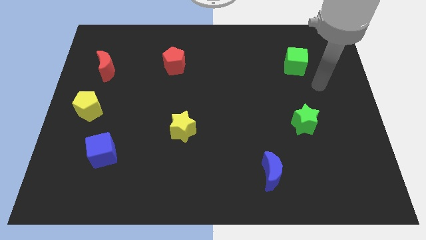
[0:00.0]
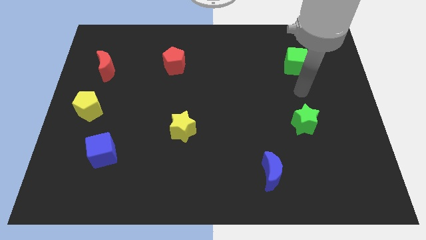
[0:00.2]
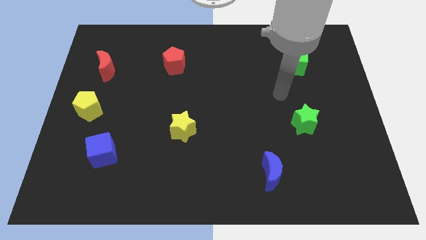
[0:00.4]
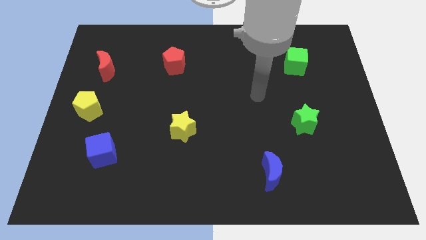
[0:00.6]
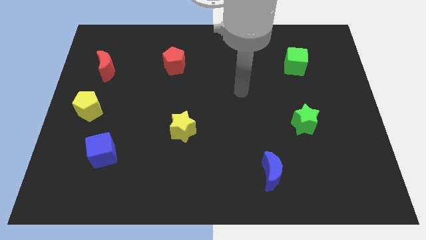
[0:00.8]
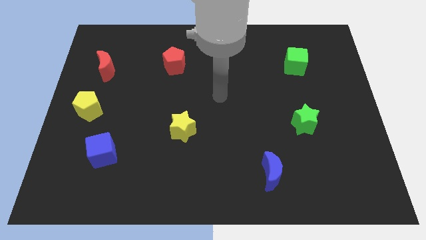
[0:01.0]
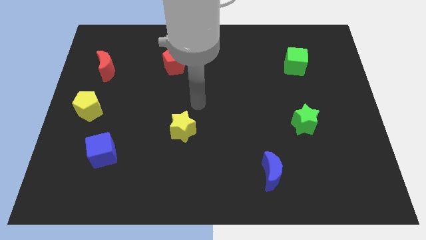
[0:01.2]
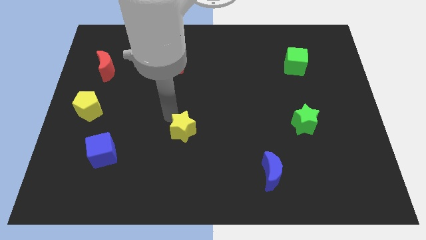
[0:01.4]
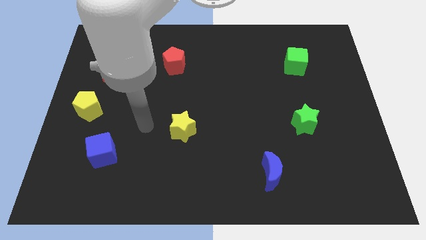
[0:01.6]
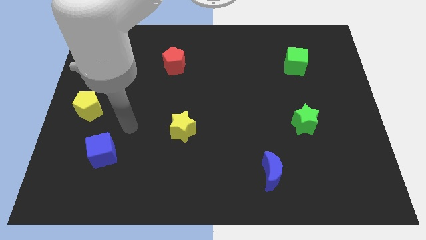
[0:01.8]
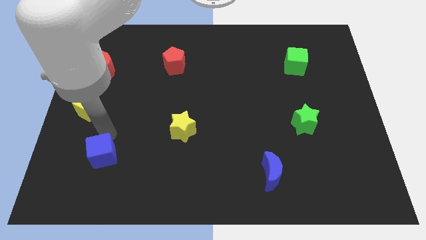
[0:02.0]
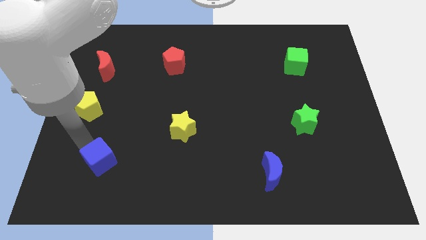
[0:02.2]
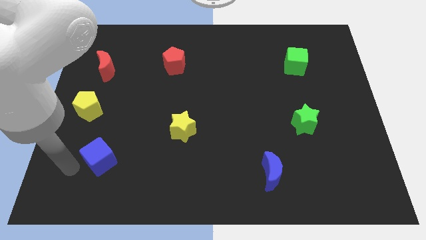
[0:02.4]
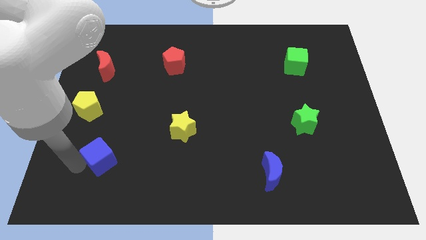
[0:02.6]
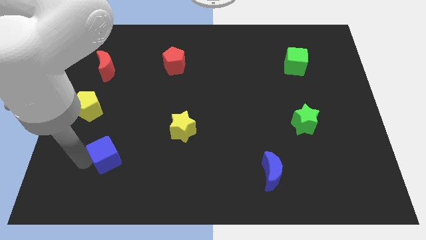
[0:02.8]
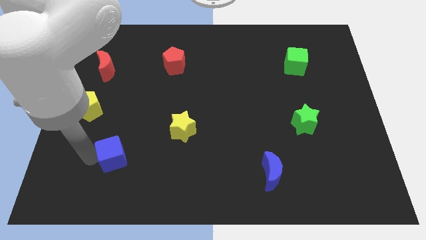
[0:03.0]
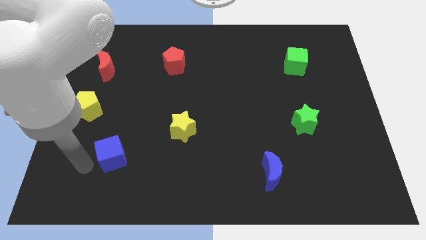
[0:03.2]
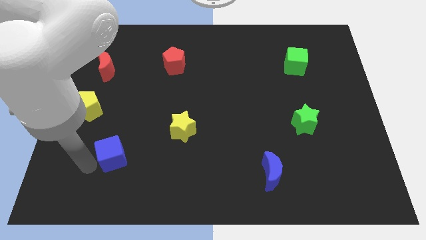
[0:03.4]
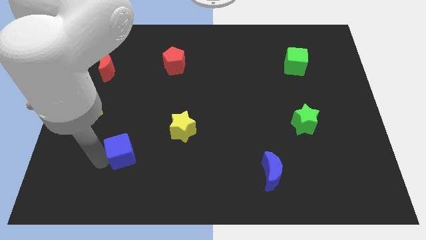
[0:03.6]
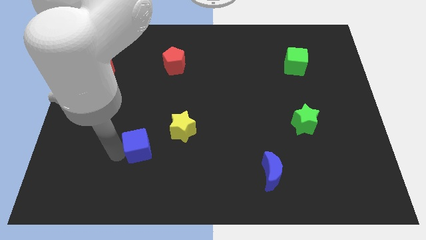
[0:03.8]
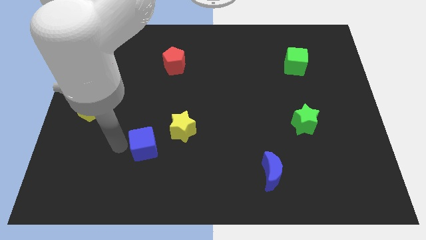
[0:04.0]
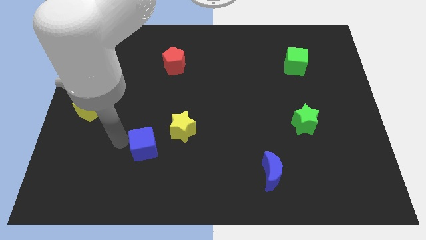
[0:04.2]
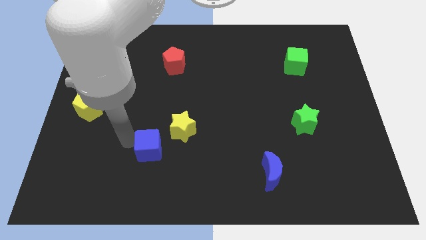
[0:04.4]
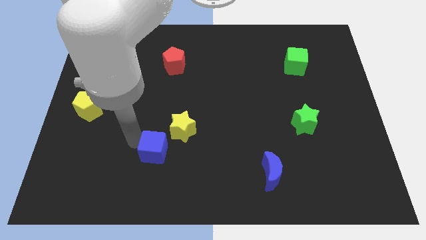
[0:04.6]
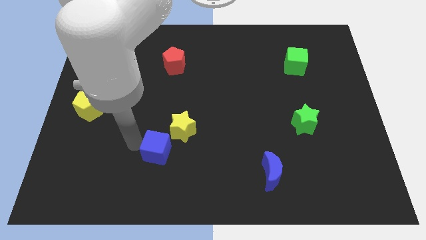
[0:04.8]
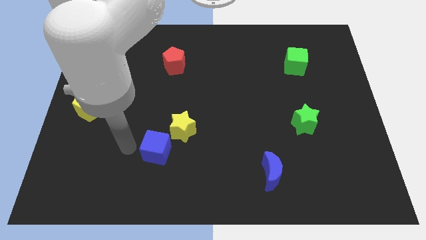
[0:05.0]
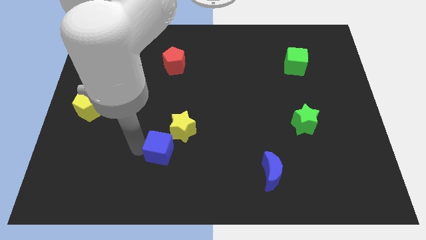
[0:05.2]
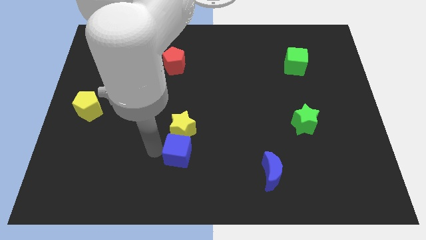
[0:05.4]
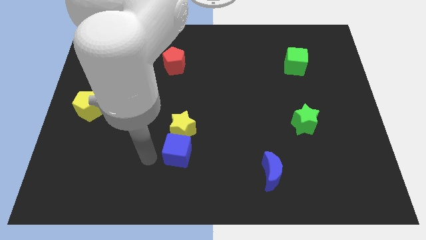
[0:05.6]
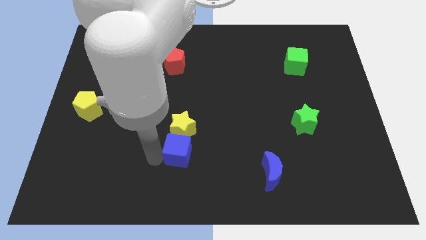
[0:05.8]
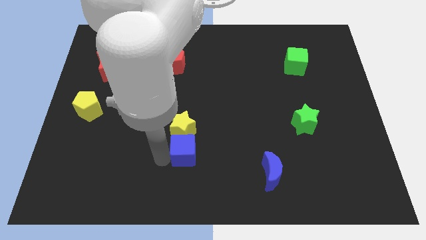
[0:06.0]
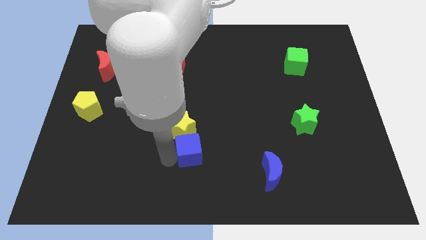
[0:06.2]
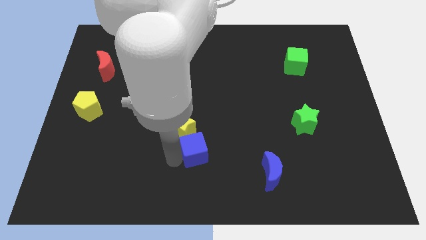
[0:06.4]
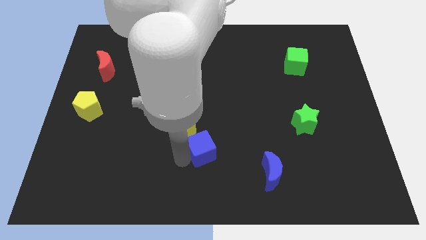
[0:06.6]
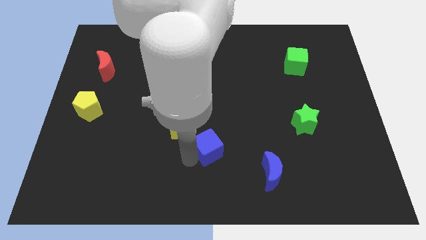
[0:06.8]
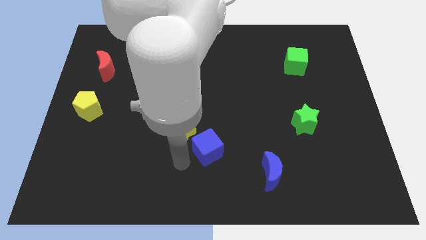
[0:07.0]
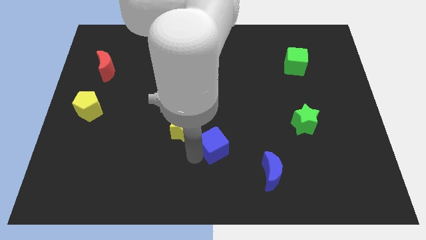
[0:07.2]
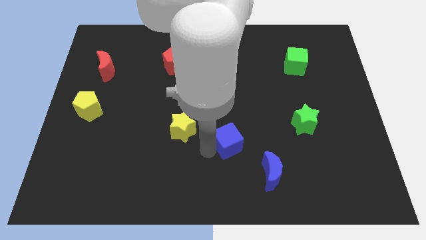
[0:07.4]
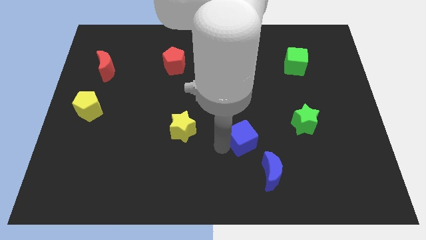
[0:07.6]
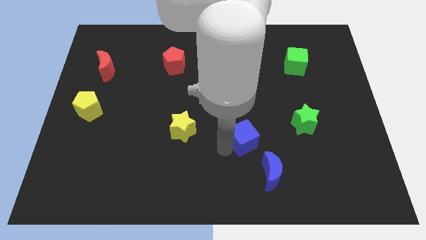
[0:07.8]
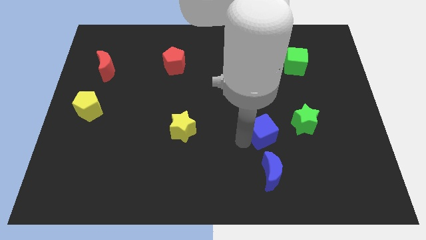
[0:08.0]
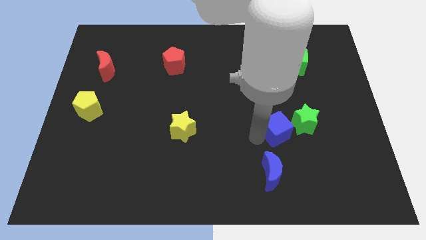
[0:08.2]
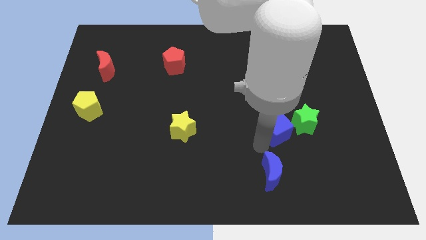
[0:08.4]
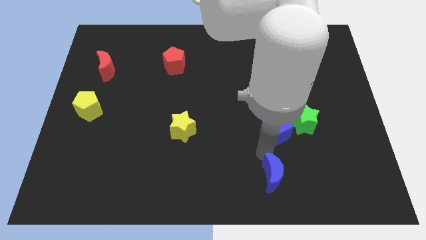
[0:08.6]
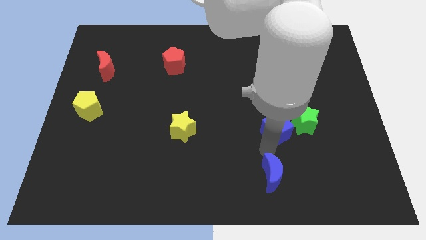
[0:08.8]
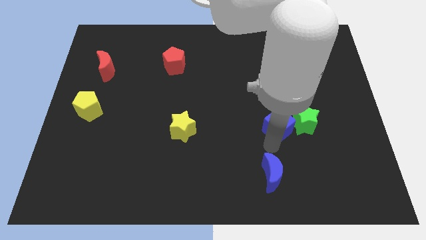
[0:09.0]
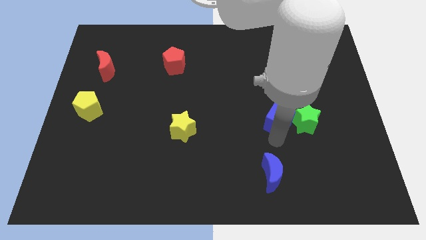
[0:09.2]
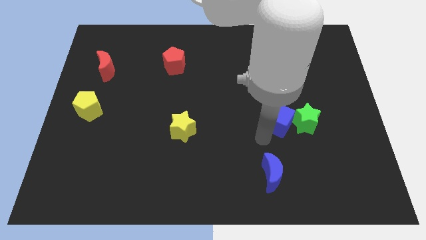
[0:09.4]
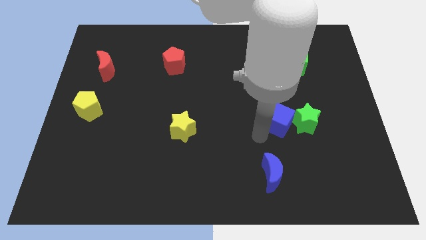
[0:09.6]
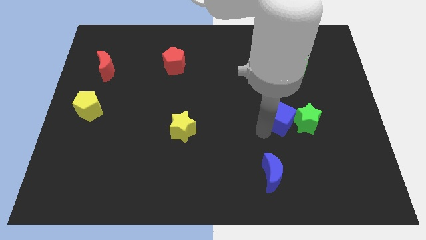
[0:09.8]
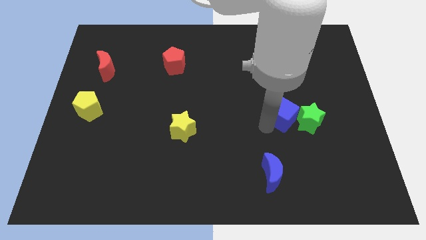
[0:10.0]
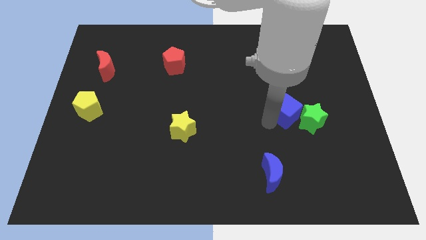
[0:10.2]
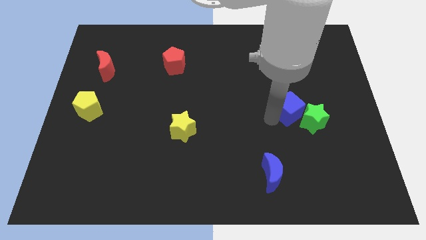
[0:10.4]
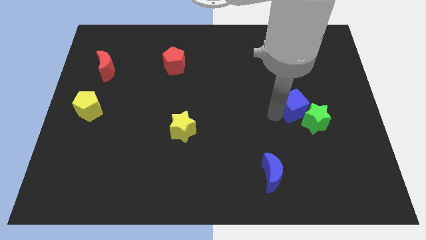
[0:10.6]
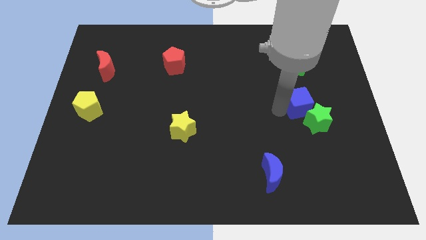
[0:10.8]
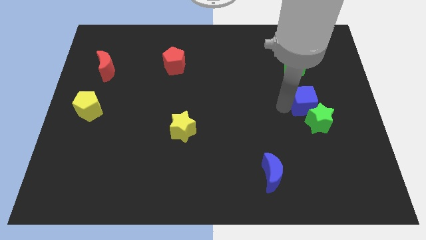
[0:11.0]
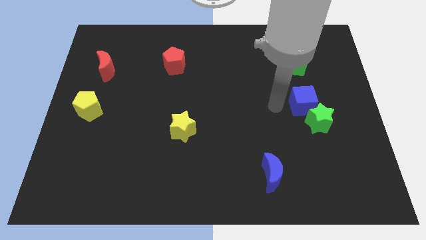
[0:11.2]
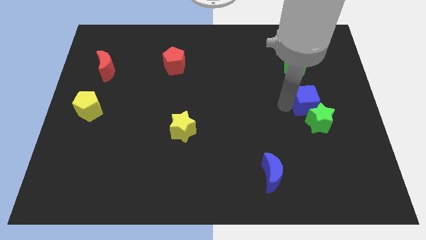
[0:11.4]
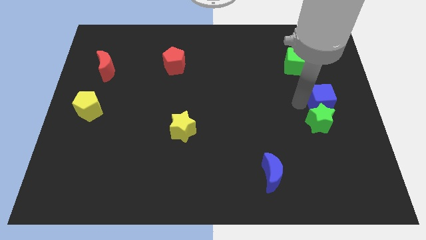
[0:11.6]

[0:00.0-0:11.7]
put the blue cube to the right side of the board
